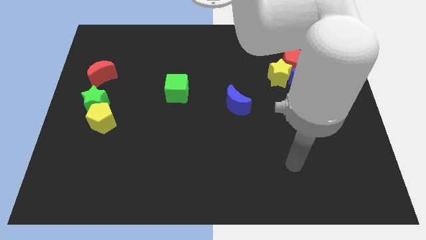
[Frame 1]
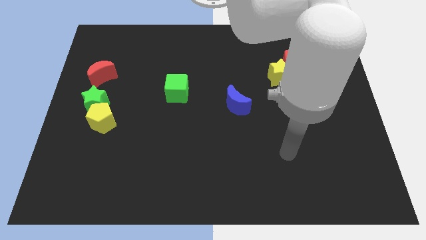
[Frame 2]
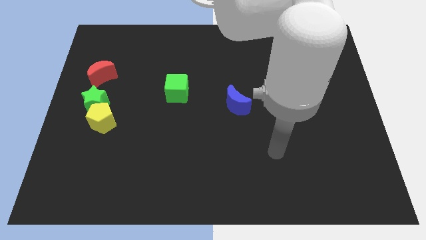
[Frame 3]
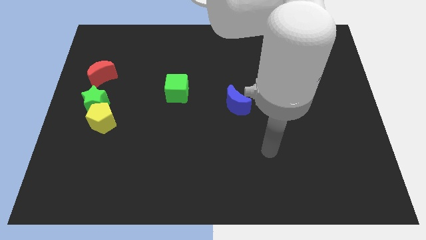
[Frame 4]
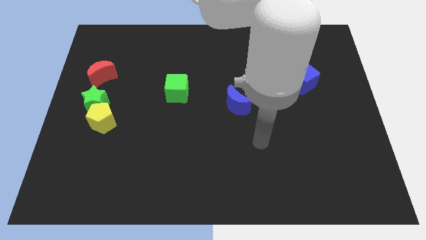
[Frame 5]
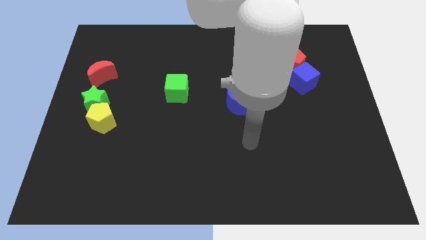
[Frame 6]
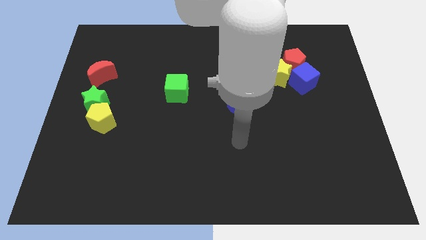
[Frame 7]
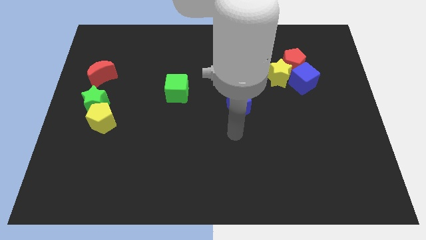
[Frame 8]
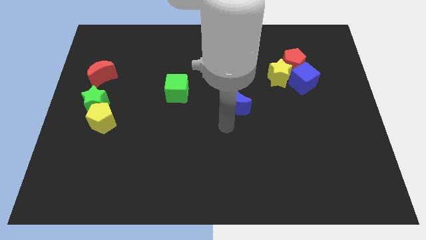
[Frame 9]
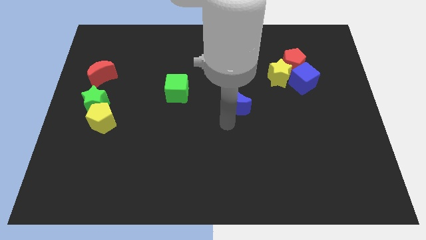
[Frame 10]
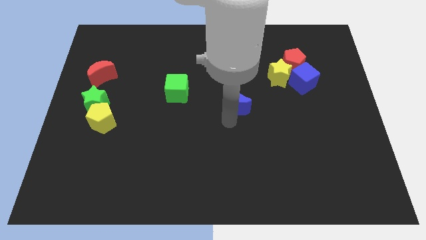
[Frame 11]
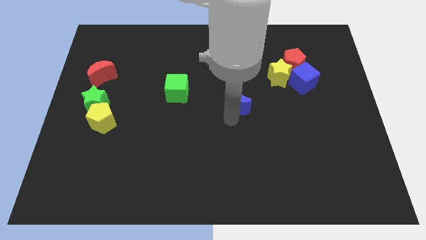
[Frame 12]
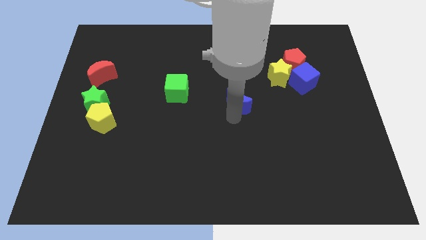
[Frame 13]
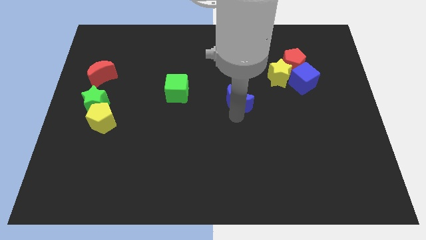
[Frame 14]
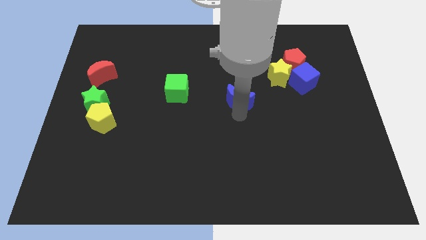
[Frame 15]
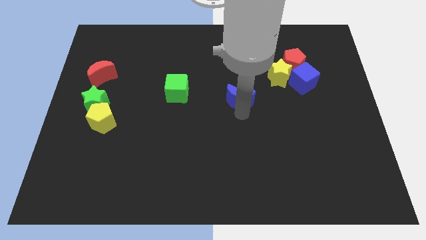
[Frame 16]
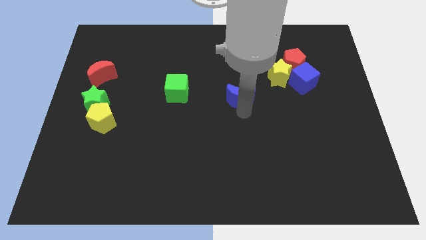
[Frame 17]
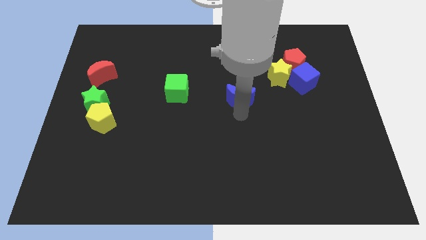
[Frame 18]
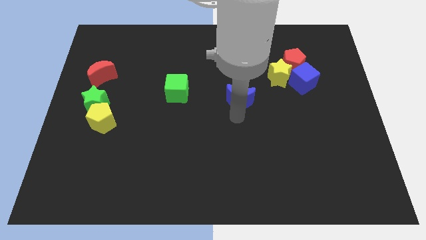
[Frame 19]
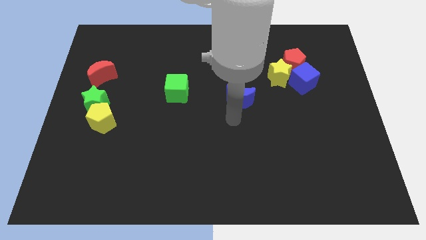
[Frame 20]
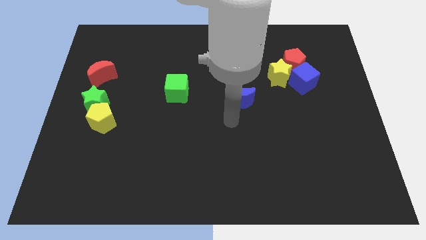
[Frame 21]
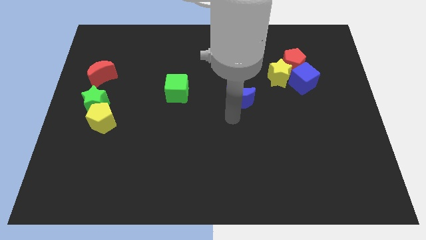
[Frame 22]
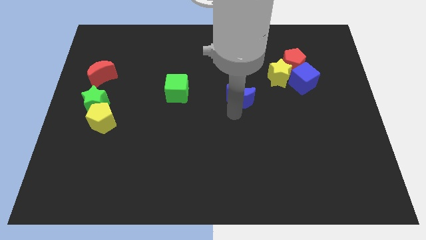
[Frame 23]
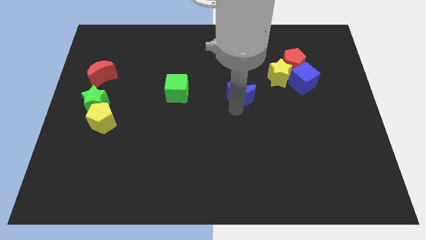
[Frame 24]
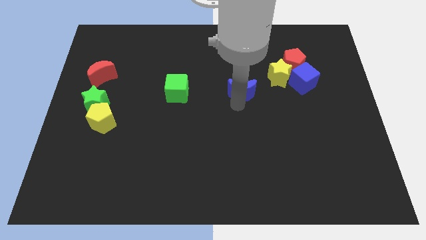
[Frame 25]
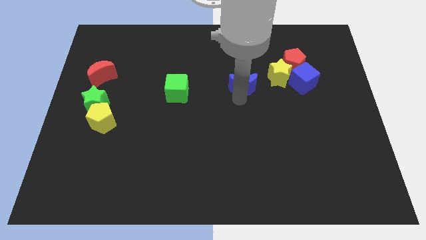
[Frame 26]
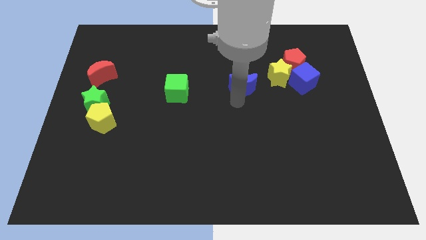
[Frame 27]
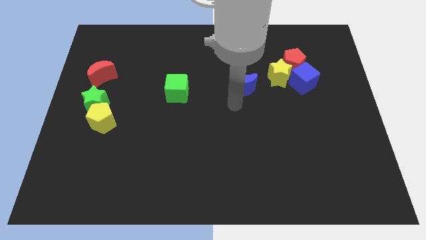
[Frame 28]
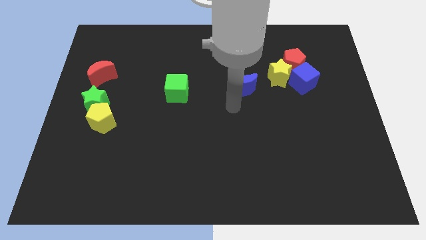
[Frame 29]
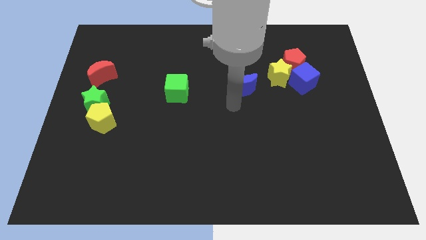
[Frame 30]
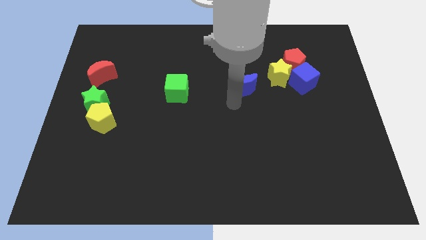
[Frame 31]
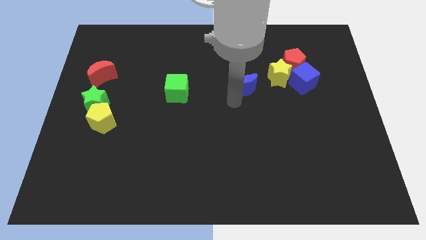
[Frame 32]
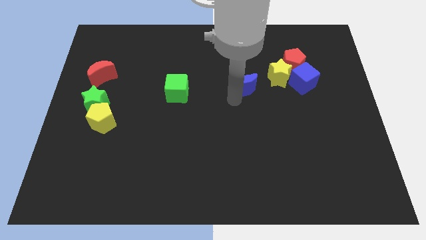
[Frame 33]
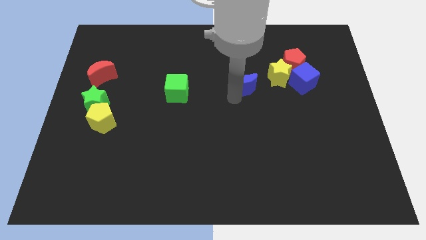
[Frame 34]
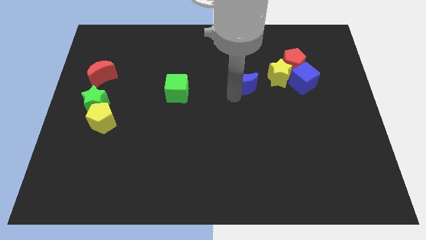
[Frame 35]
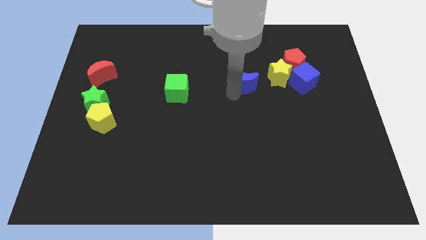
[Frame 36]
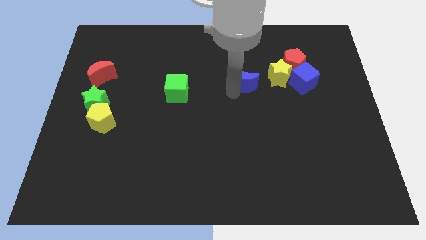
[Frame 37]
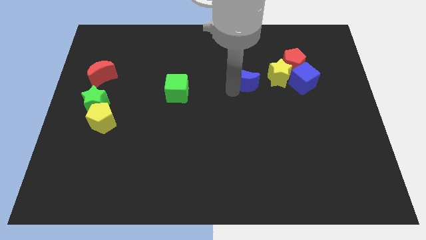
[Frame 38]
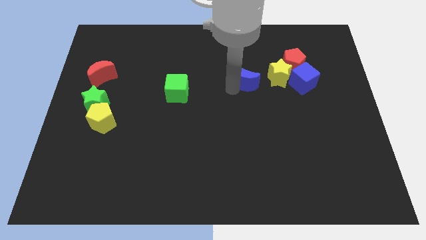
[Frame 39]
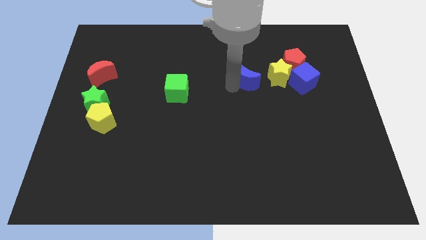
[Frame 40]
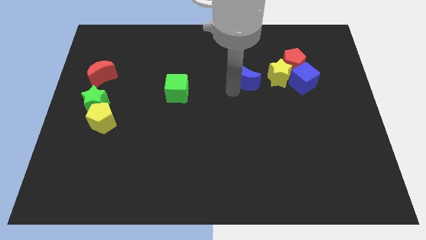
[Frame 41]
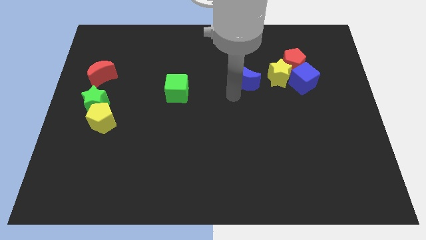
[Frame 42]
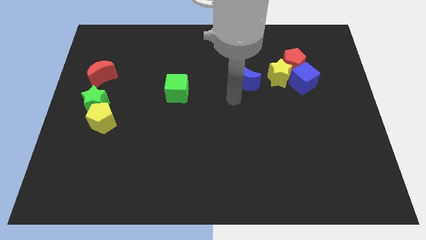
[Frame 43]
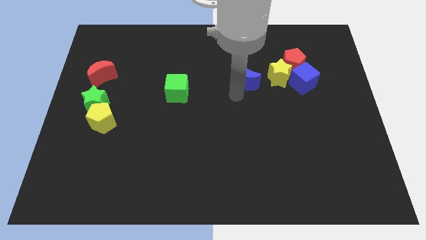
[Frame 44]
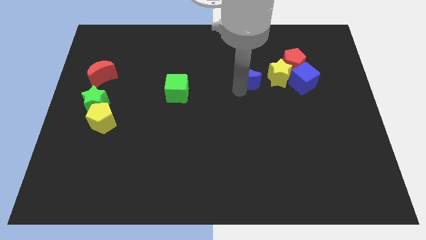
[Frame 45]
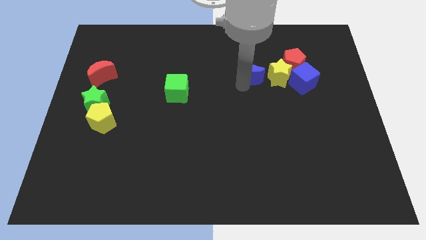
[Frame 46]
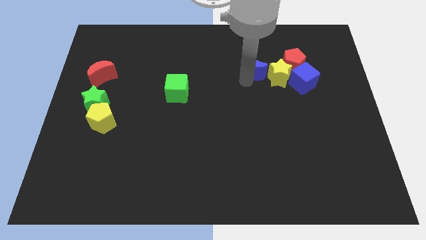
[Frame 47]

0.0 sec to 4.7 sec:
slide the blue moon diagonally up and to the left of the yellow star

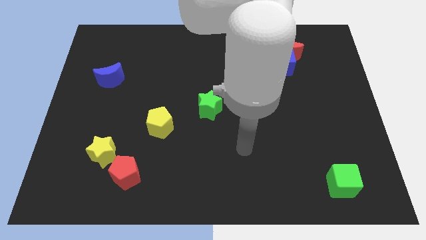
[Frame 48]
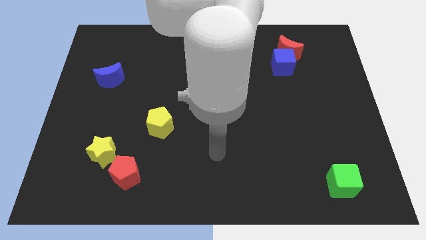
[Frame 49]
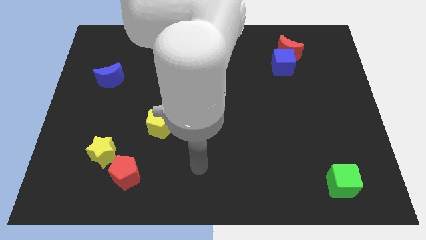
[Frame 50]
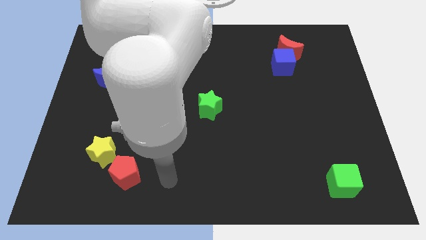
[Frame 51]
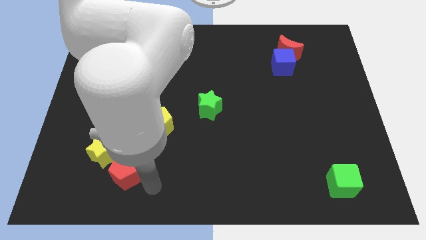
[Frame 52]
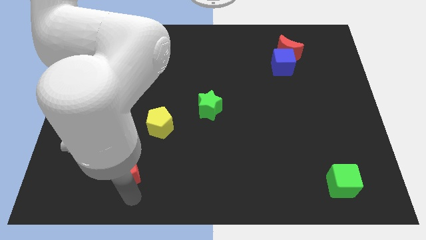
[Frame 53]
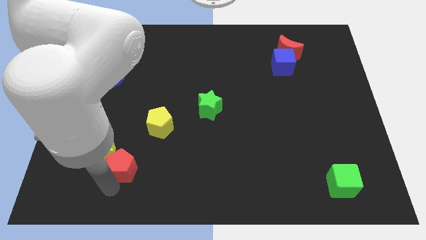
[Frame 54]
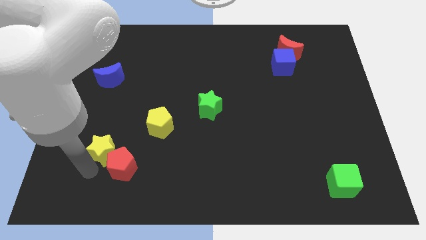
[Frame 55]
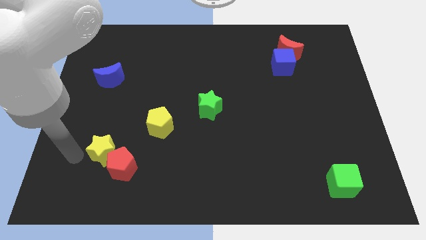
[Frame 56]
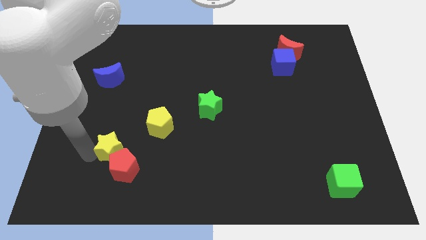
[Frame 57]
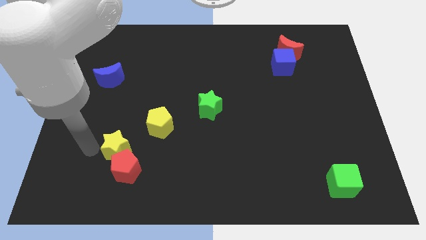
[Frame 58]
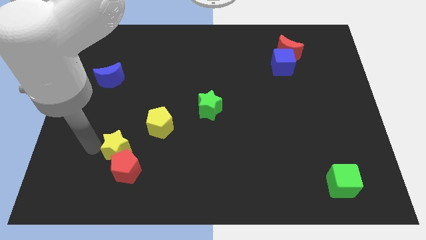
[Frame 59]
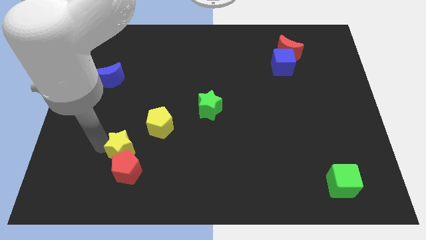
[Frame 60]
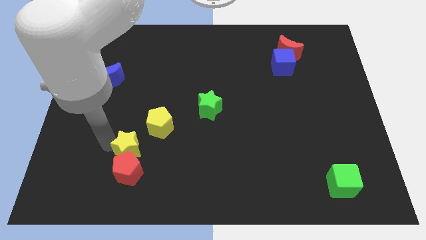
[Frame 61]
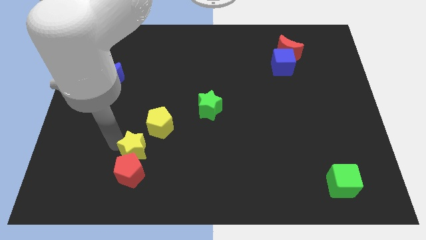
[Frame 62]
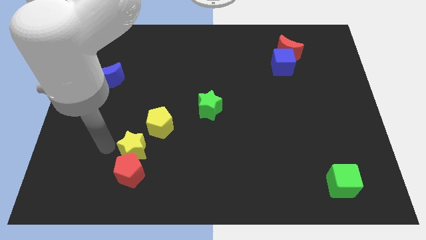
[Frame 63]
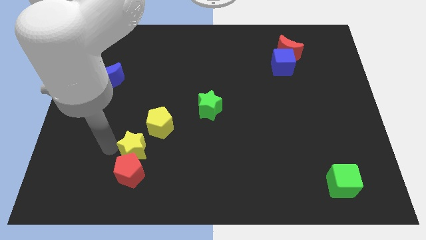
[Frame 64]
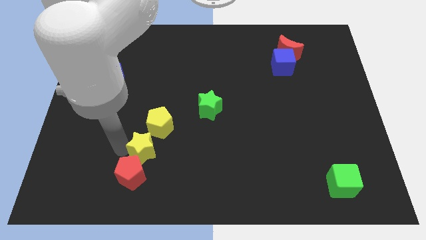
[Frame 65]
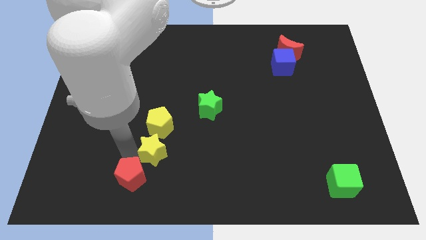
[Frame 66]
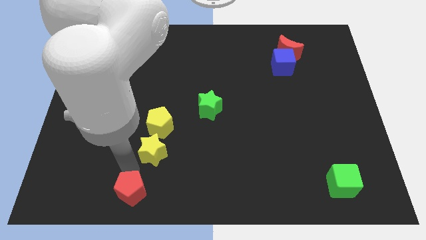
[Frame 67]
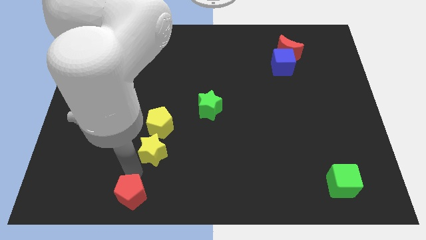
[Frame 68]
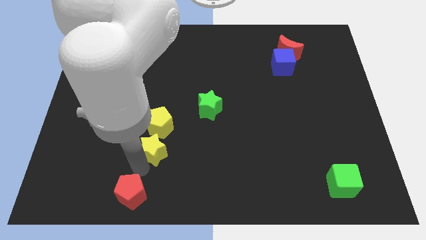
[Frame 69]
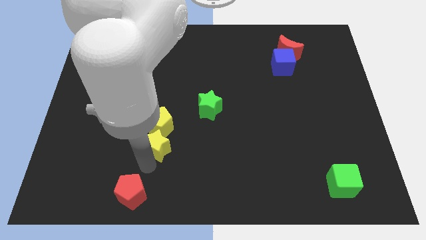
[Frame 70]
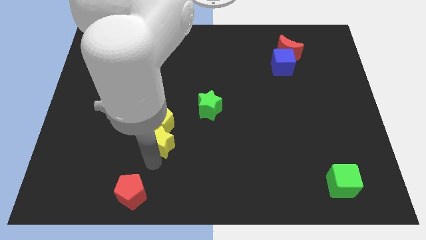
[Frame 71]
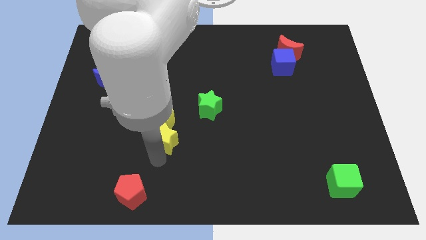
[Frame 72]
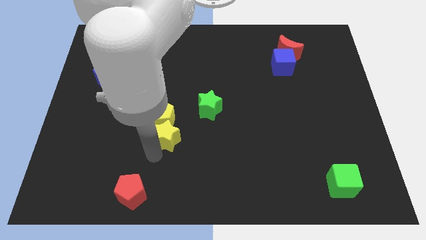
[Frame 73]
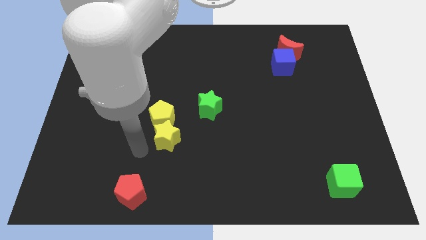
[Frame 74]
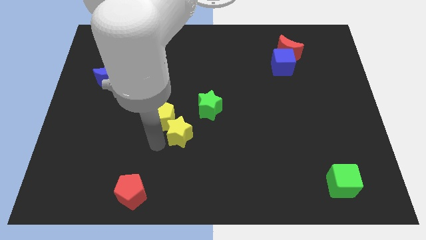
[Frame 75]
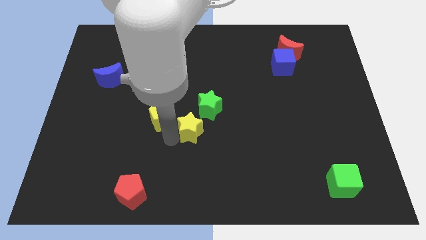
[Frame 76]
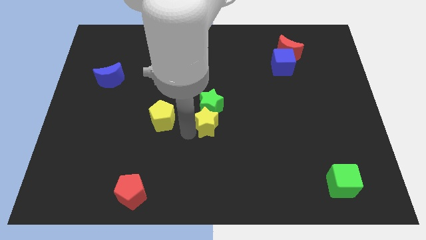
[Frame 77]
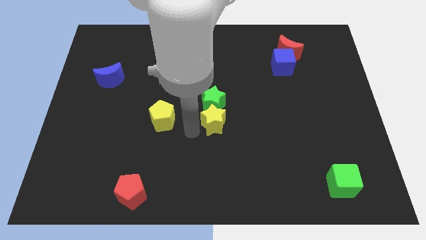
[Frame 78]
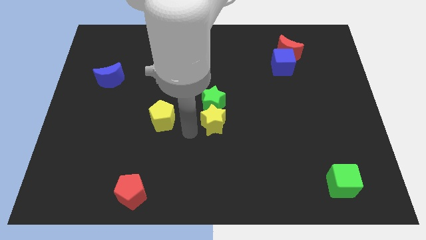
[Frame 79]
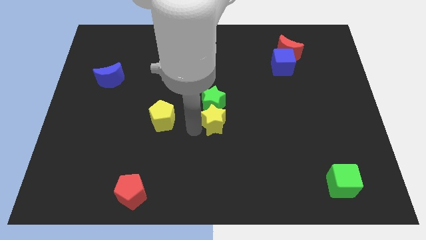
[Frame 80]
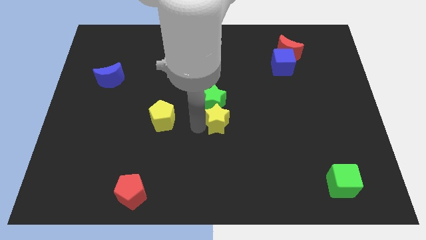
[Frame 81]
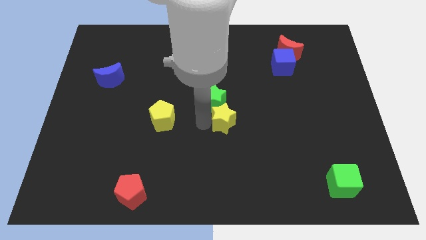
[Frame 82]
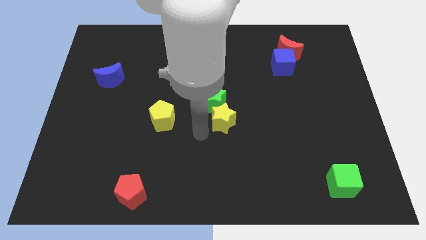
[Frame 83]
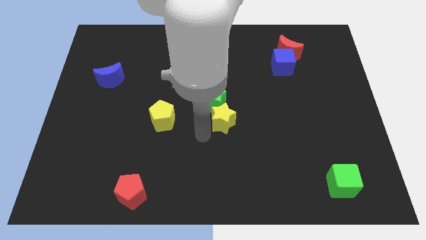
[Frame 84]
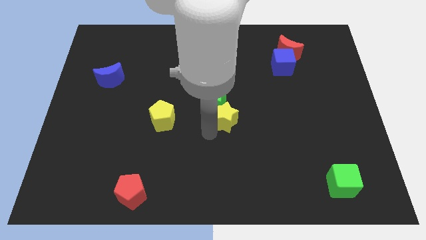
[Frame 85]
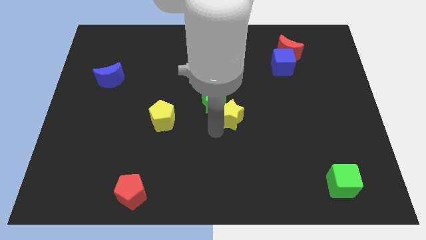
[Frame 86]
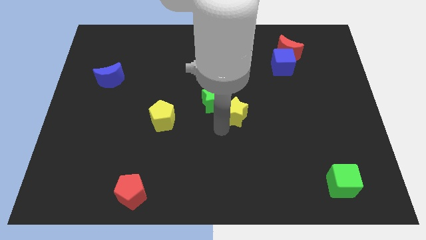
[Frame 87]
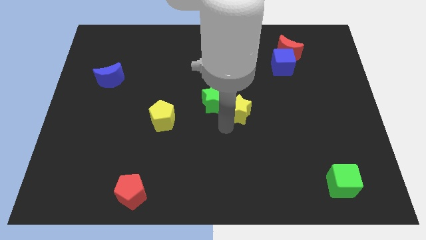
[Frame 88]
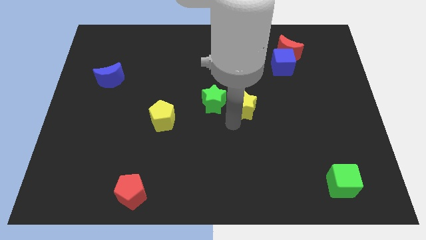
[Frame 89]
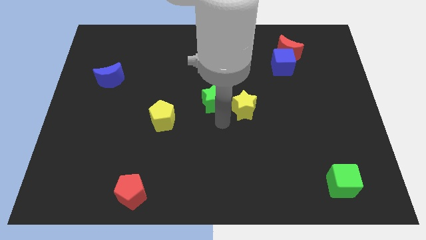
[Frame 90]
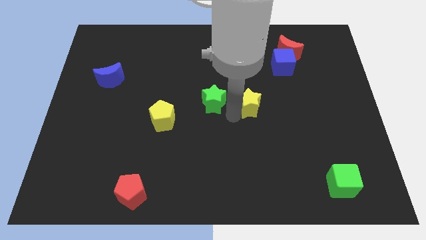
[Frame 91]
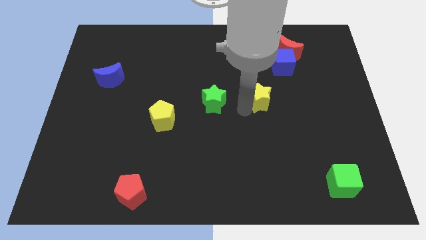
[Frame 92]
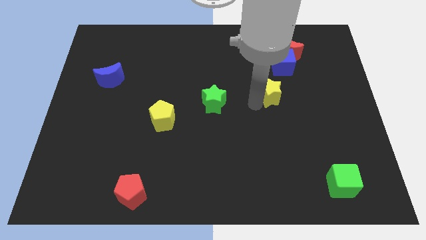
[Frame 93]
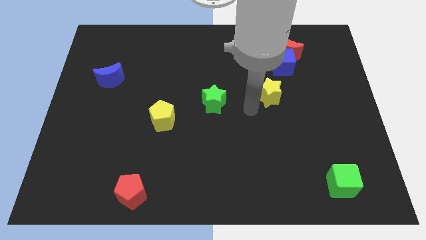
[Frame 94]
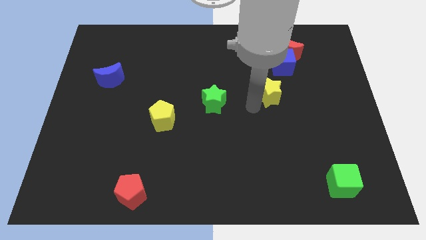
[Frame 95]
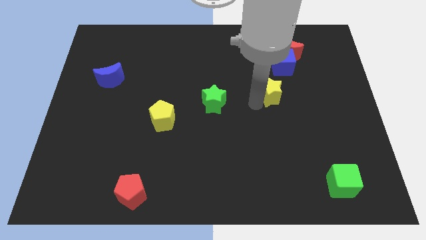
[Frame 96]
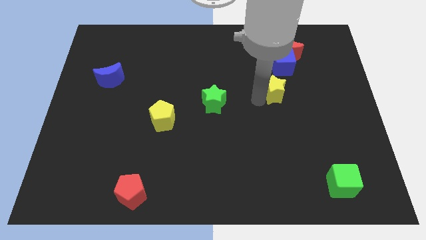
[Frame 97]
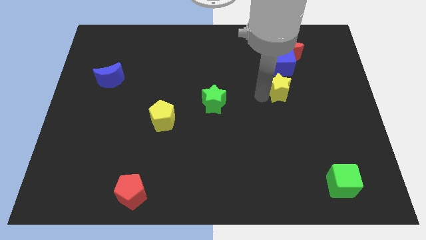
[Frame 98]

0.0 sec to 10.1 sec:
move the yellow star below the red moon
